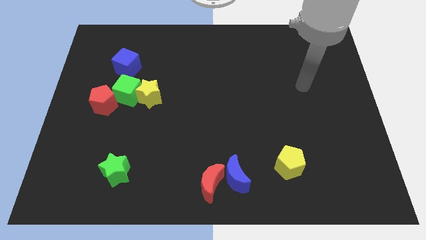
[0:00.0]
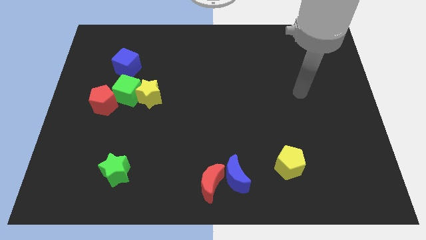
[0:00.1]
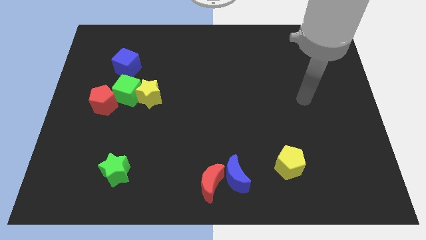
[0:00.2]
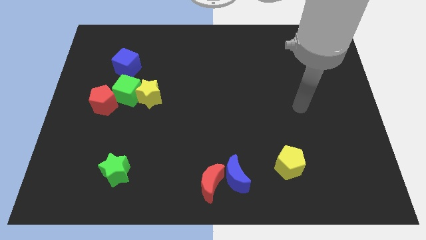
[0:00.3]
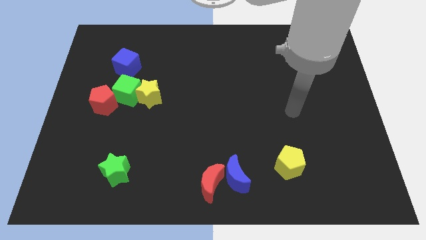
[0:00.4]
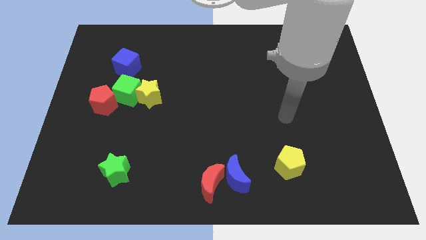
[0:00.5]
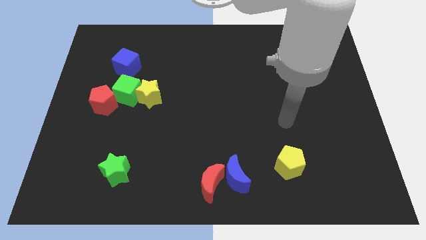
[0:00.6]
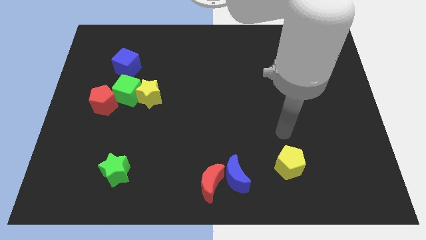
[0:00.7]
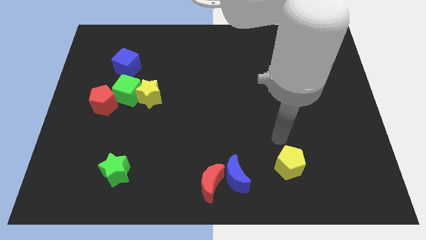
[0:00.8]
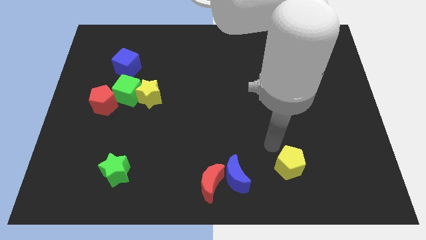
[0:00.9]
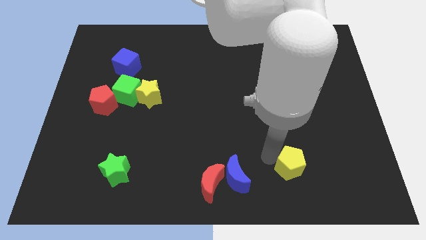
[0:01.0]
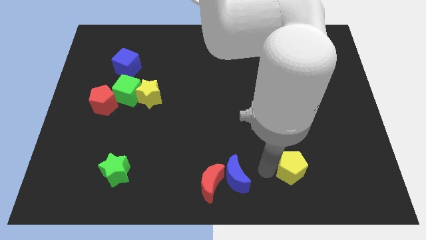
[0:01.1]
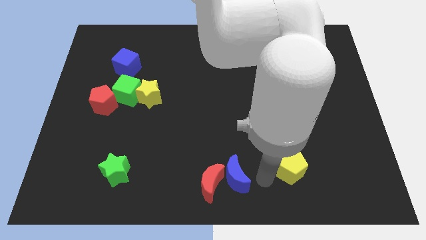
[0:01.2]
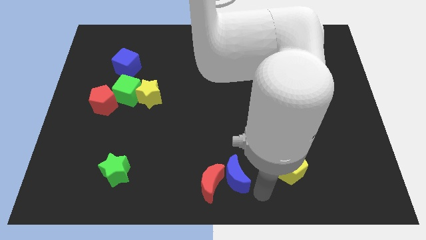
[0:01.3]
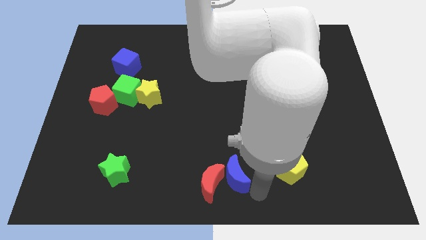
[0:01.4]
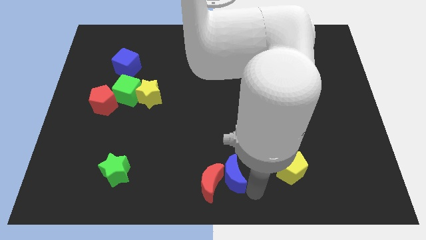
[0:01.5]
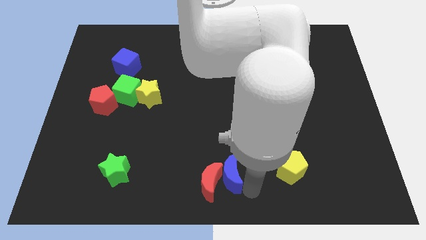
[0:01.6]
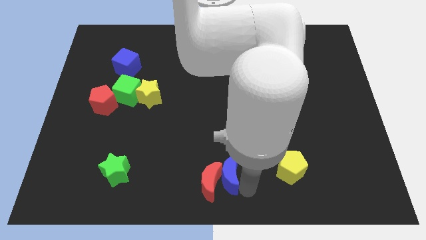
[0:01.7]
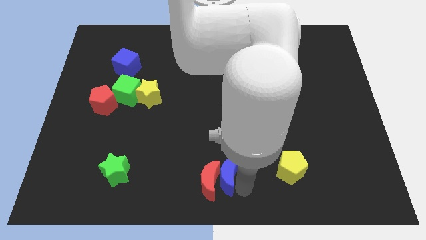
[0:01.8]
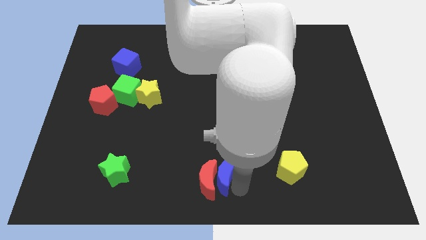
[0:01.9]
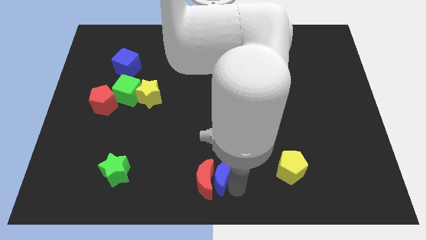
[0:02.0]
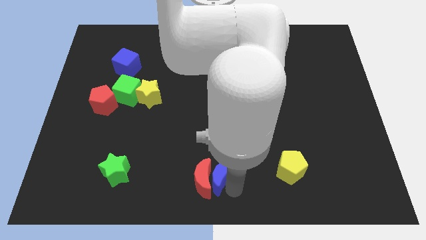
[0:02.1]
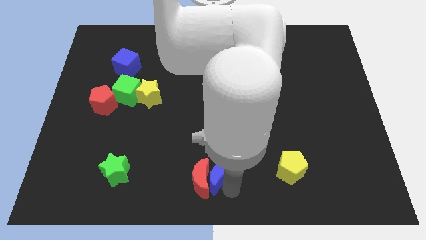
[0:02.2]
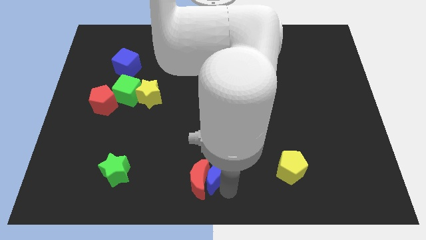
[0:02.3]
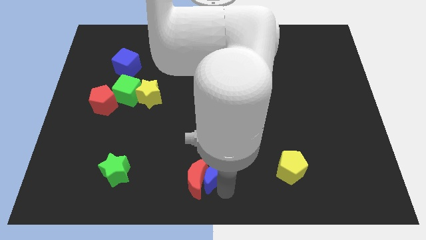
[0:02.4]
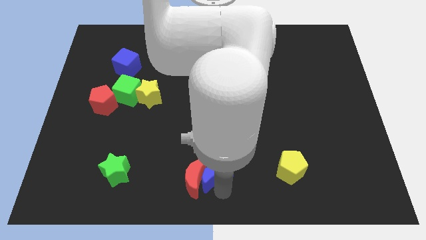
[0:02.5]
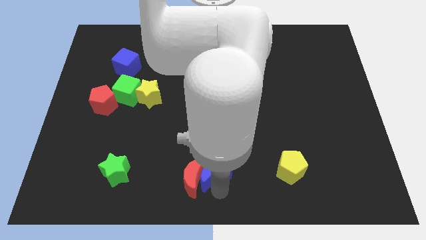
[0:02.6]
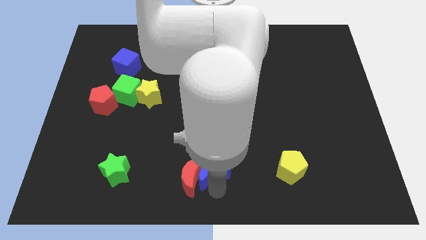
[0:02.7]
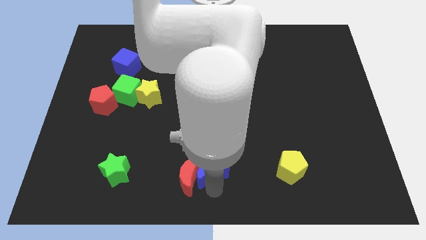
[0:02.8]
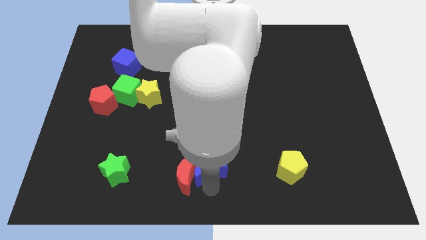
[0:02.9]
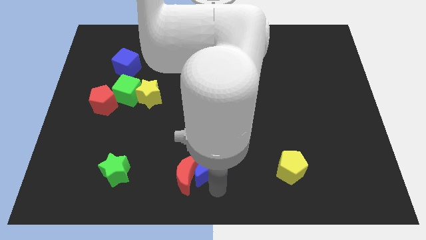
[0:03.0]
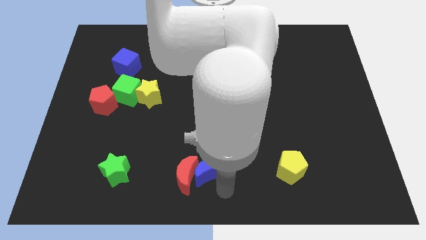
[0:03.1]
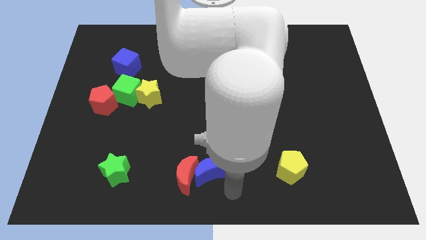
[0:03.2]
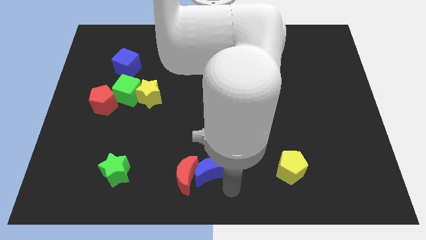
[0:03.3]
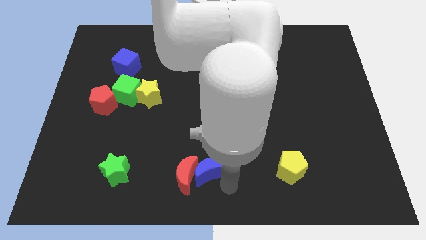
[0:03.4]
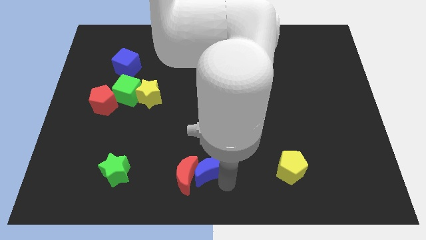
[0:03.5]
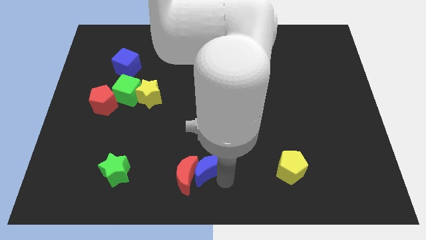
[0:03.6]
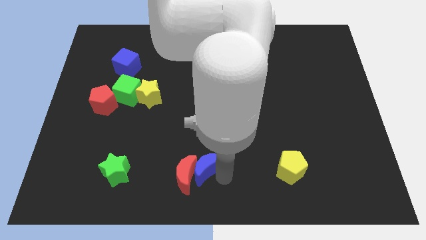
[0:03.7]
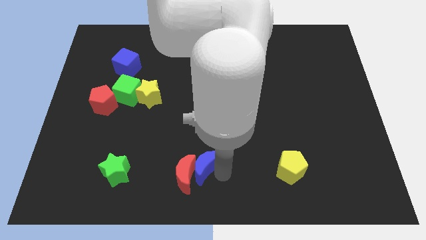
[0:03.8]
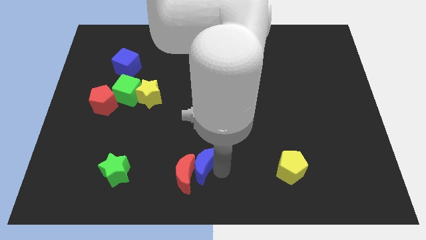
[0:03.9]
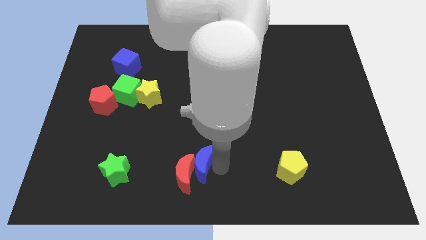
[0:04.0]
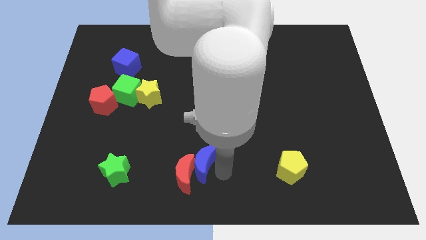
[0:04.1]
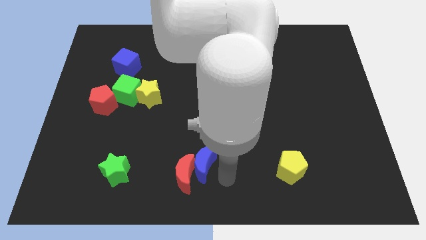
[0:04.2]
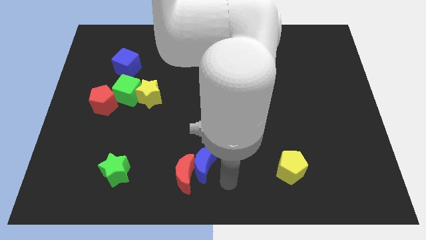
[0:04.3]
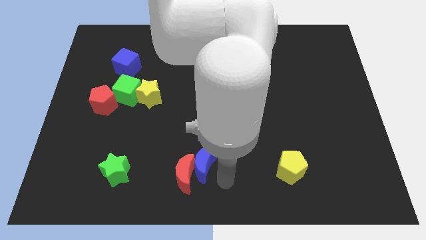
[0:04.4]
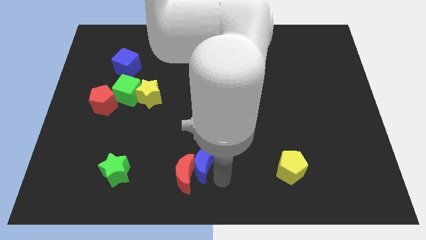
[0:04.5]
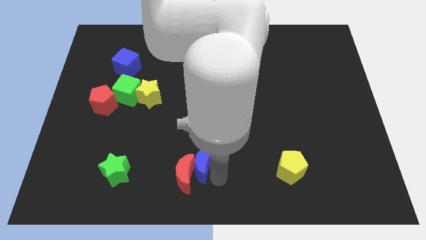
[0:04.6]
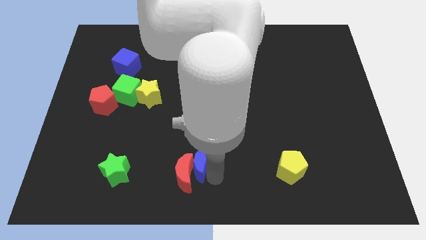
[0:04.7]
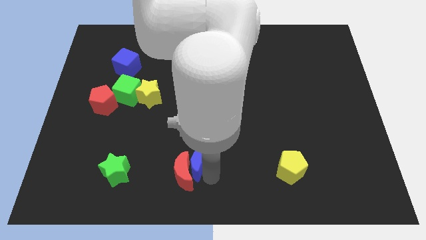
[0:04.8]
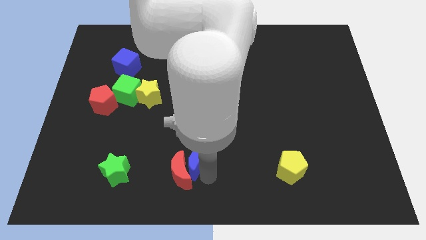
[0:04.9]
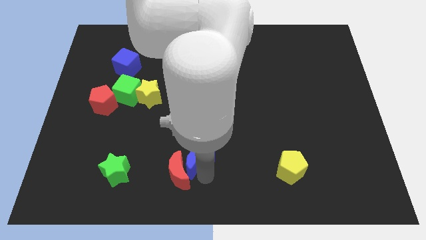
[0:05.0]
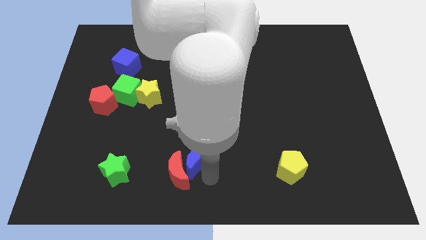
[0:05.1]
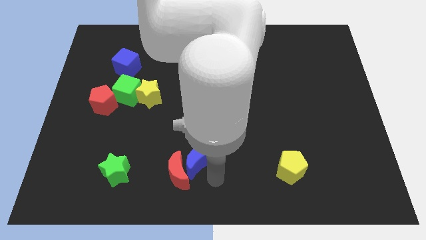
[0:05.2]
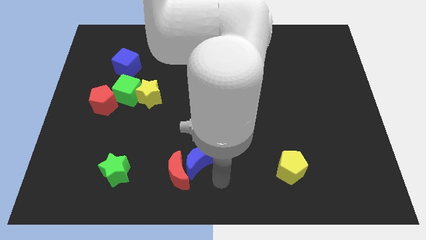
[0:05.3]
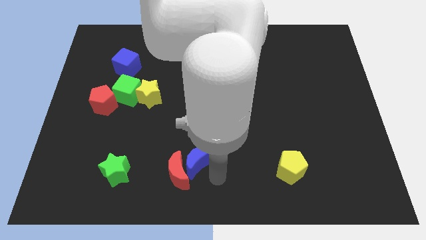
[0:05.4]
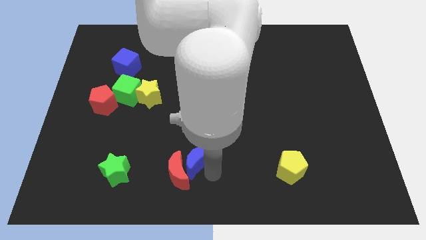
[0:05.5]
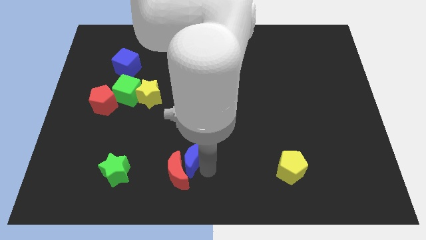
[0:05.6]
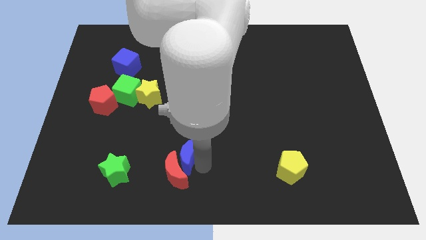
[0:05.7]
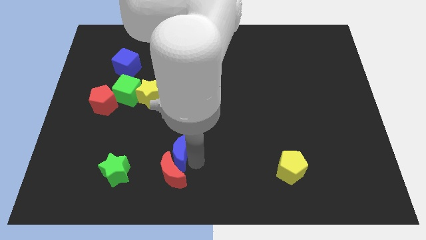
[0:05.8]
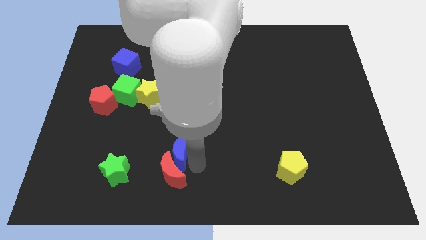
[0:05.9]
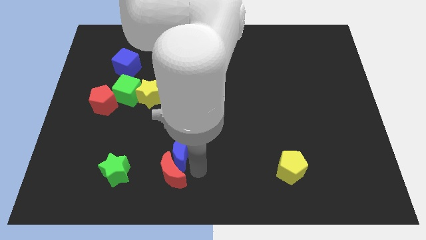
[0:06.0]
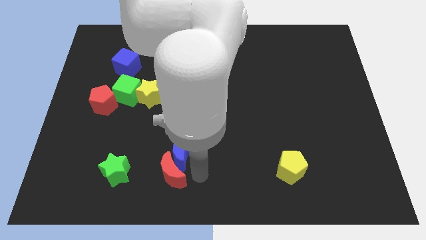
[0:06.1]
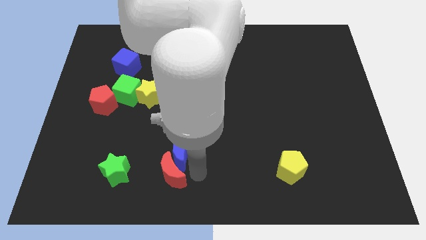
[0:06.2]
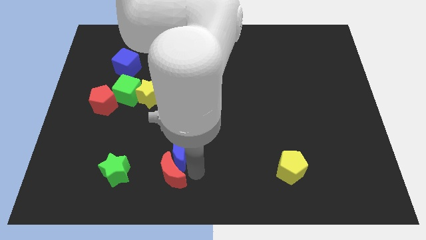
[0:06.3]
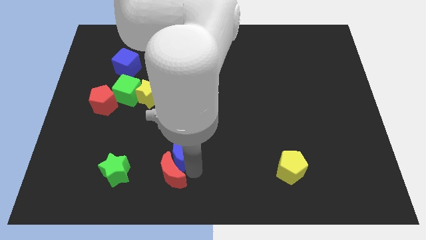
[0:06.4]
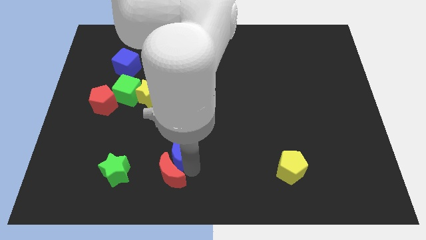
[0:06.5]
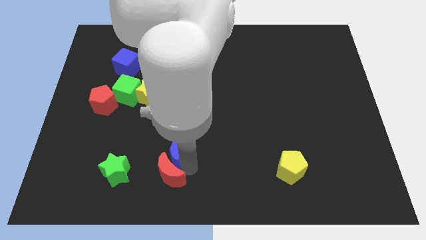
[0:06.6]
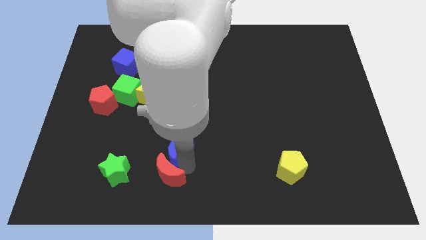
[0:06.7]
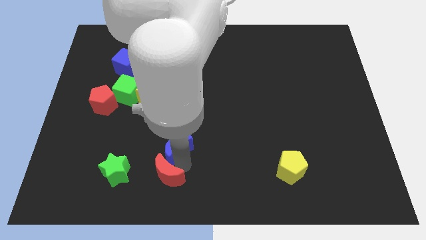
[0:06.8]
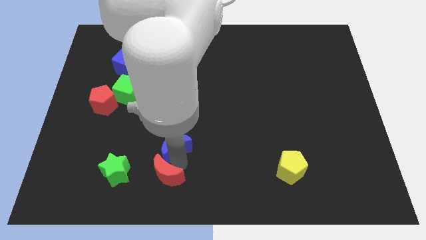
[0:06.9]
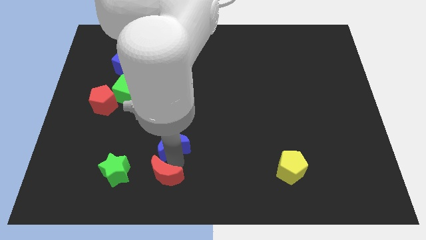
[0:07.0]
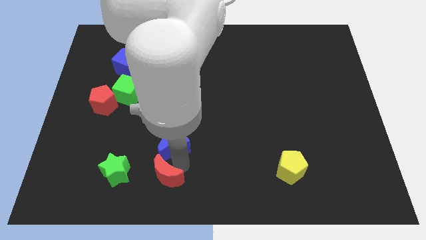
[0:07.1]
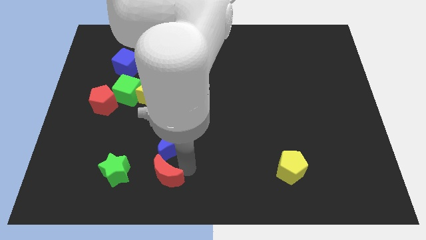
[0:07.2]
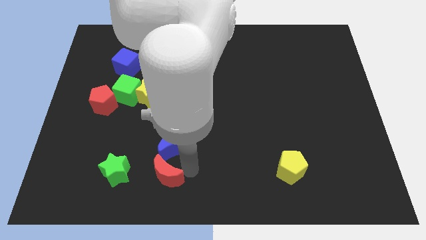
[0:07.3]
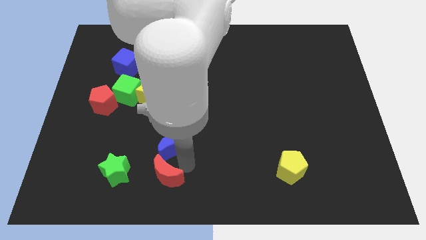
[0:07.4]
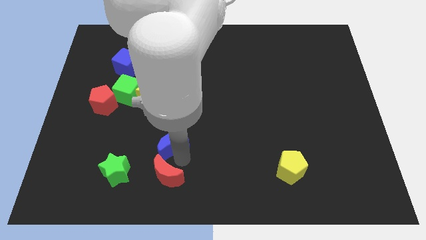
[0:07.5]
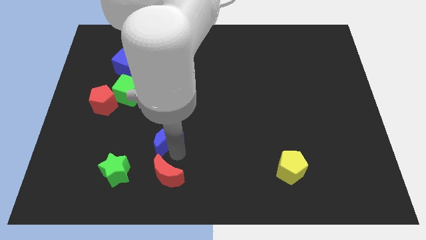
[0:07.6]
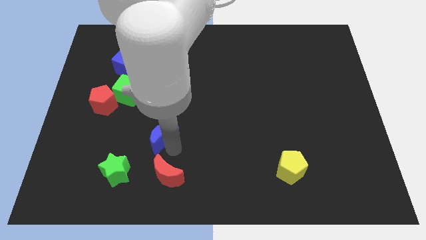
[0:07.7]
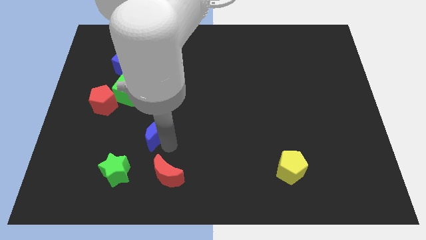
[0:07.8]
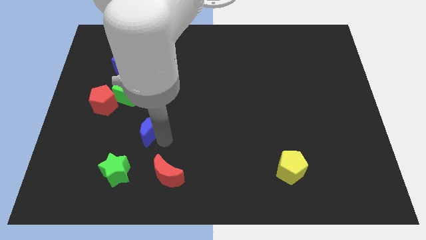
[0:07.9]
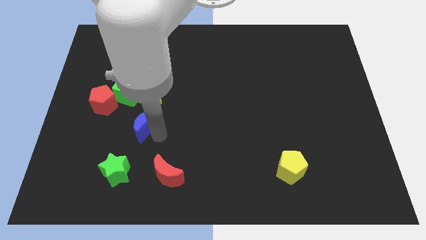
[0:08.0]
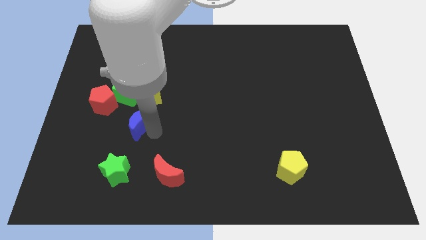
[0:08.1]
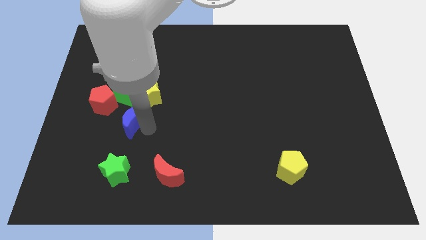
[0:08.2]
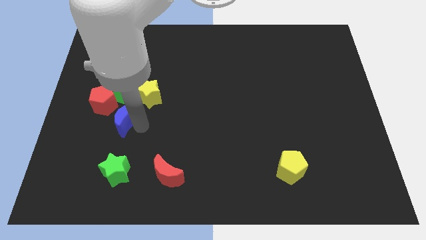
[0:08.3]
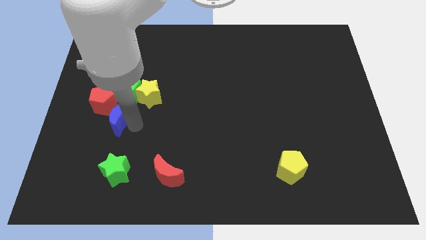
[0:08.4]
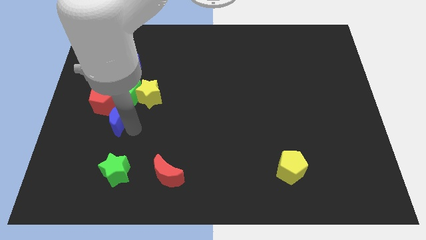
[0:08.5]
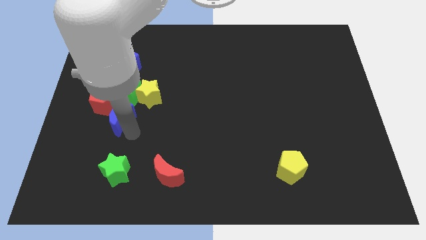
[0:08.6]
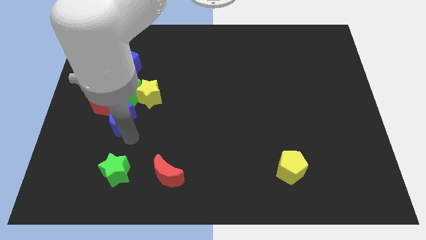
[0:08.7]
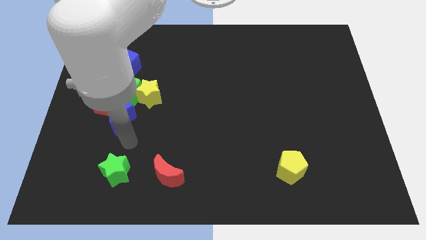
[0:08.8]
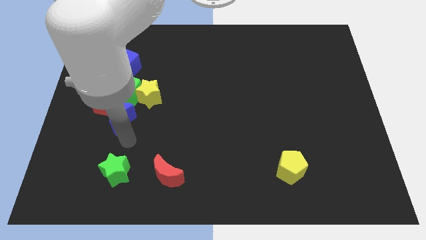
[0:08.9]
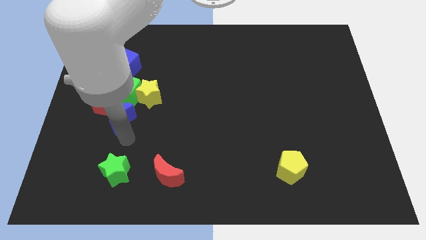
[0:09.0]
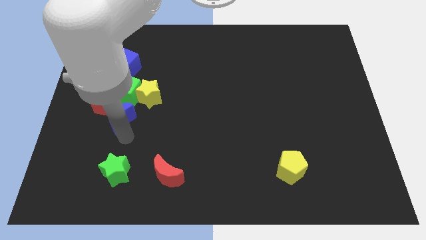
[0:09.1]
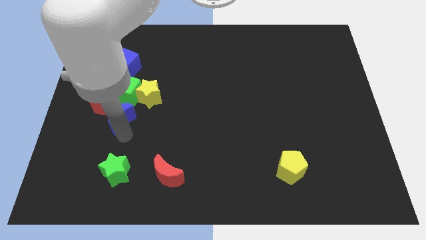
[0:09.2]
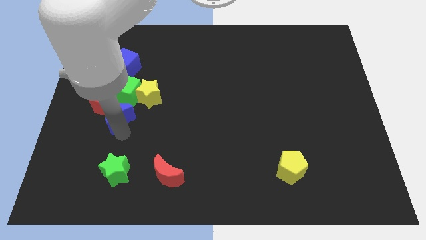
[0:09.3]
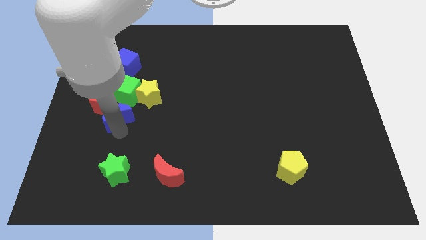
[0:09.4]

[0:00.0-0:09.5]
slide the blue moon towards the red pentagon
